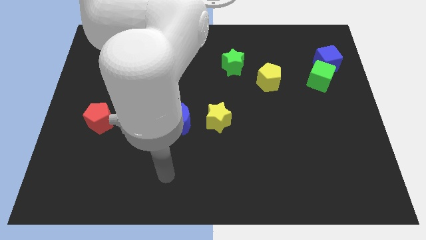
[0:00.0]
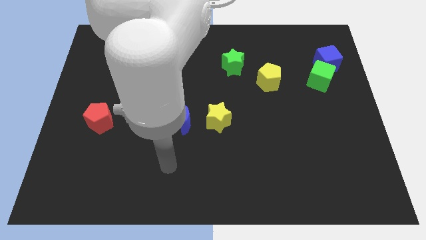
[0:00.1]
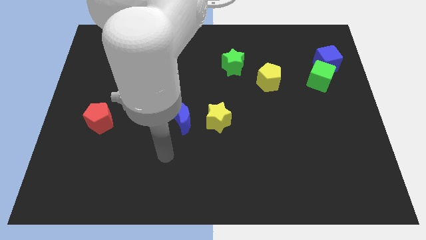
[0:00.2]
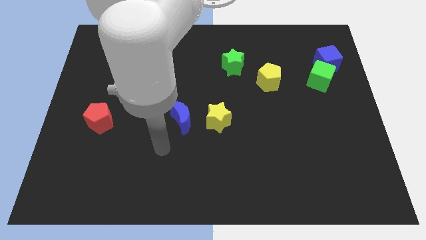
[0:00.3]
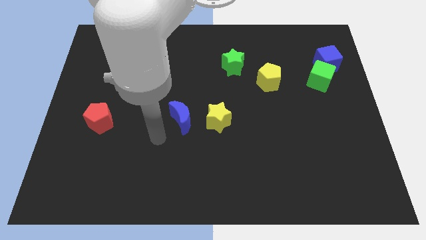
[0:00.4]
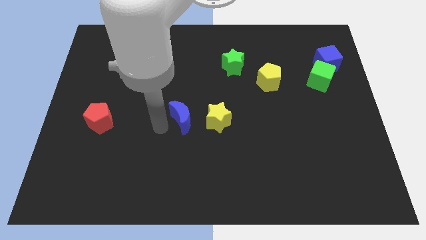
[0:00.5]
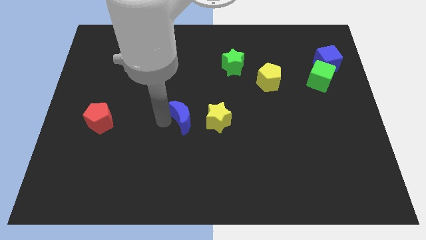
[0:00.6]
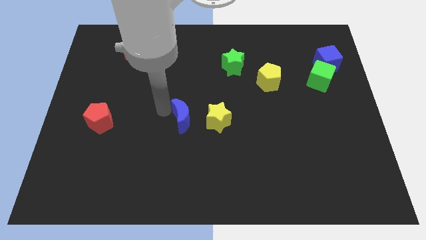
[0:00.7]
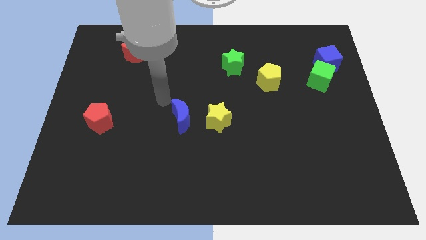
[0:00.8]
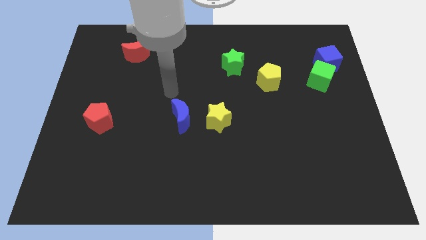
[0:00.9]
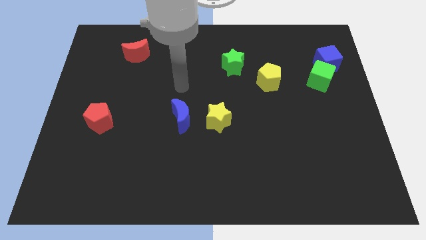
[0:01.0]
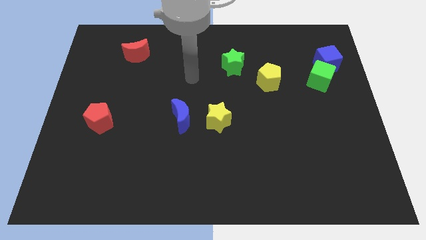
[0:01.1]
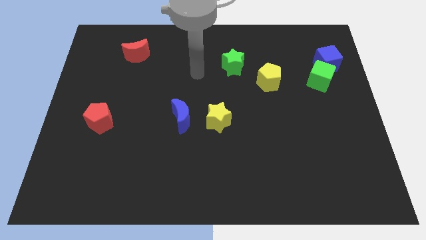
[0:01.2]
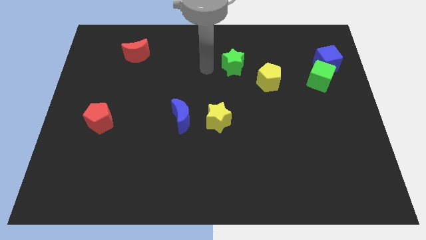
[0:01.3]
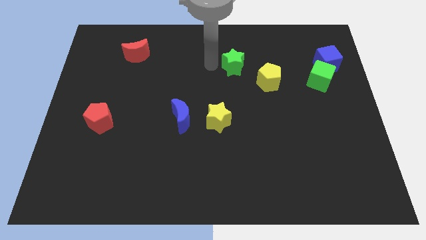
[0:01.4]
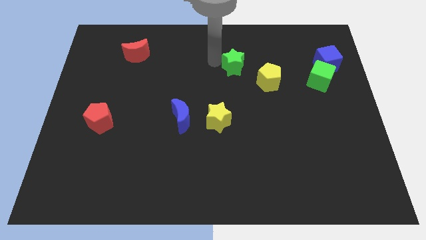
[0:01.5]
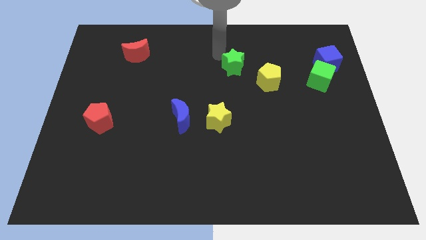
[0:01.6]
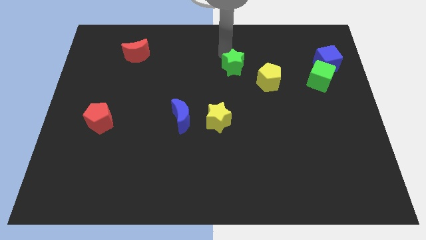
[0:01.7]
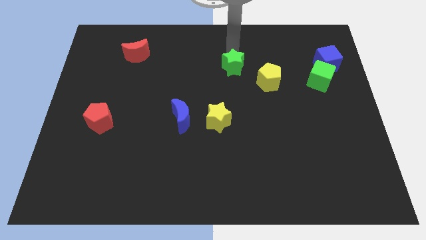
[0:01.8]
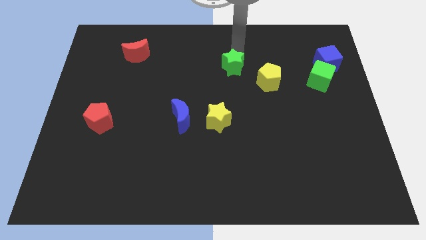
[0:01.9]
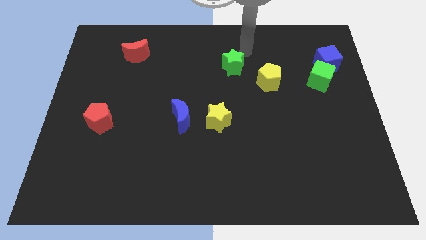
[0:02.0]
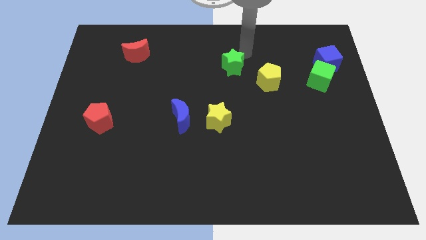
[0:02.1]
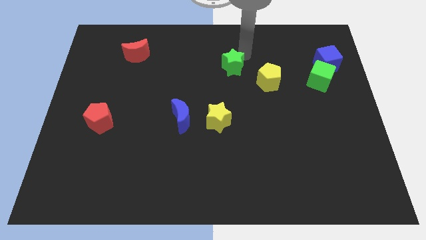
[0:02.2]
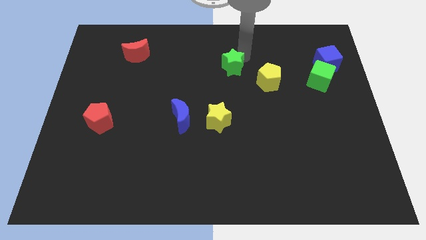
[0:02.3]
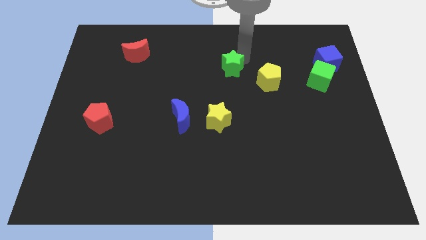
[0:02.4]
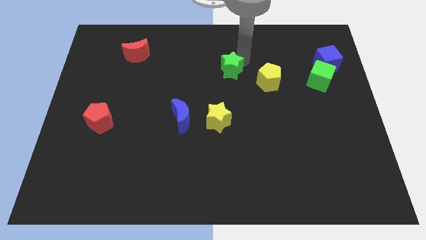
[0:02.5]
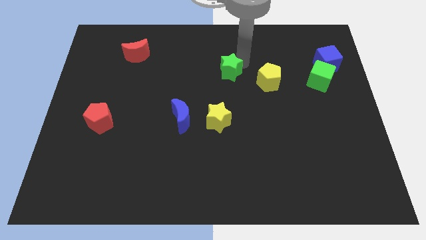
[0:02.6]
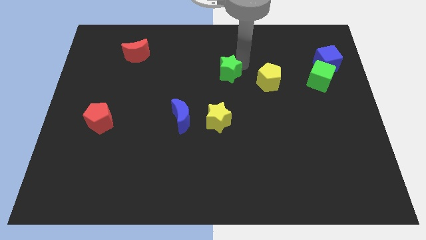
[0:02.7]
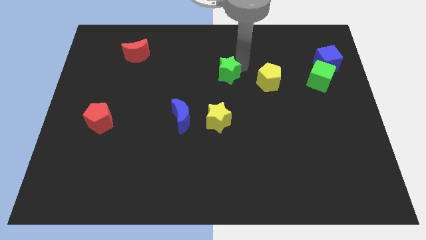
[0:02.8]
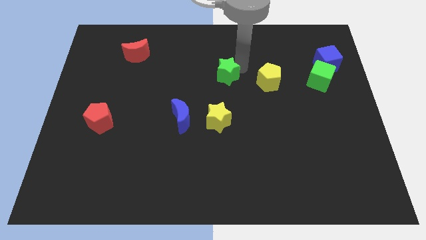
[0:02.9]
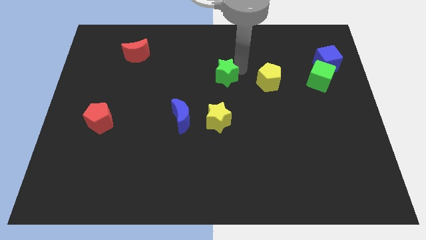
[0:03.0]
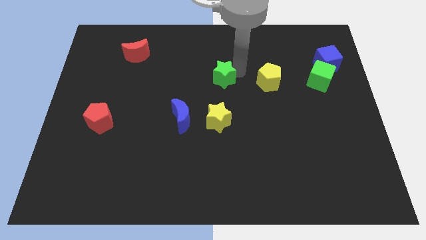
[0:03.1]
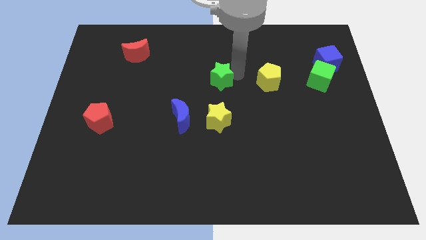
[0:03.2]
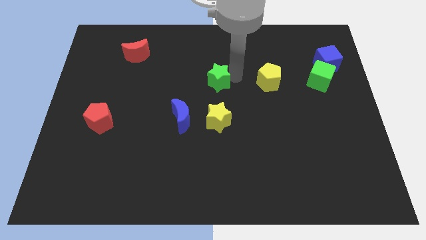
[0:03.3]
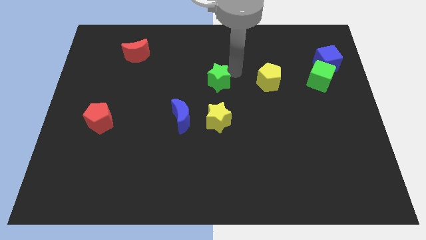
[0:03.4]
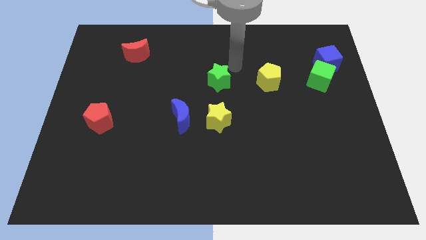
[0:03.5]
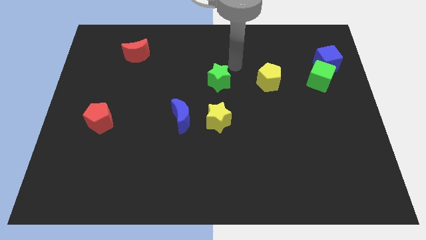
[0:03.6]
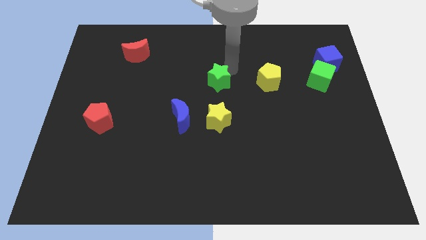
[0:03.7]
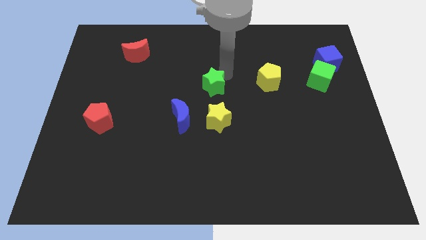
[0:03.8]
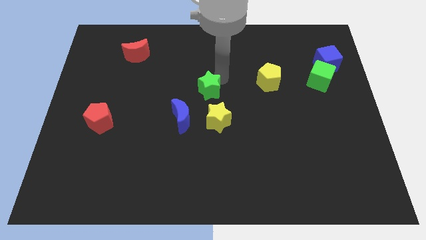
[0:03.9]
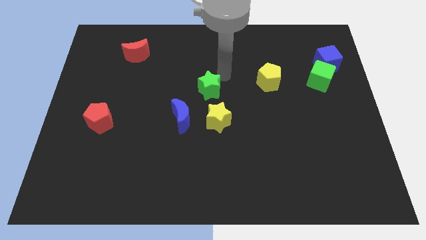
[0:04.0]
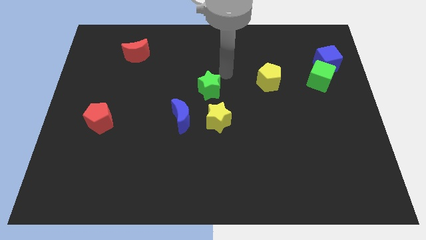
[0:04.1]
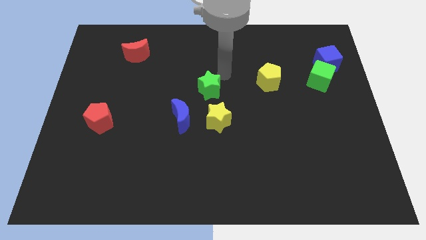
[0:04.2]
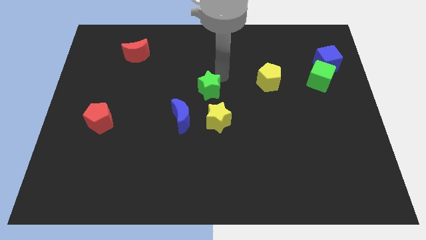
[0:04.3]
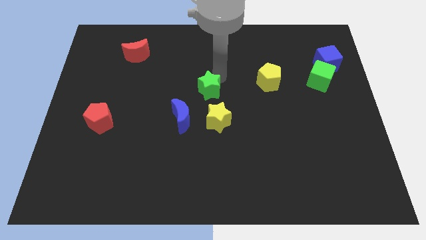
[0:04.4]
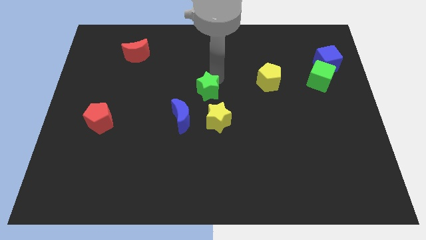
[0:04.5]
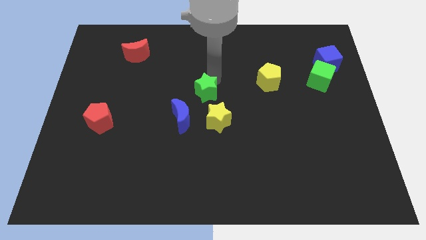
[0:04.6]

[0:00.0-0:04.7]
slide the green star to the top left side of the yellow star

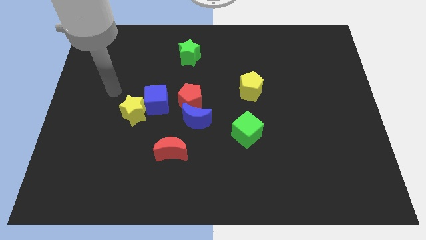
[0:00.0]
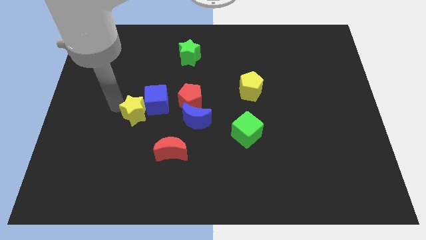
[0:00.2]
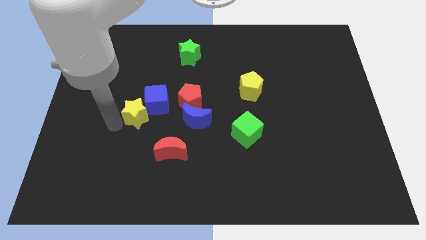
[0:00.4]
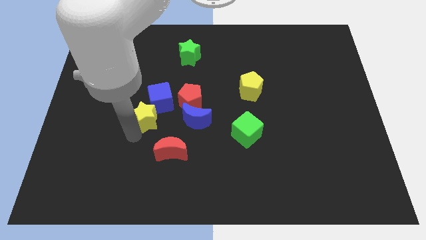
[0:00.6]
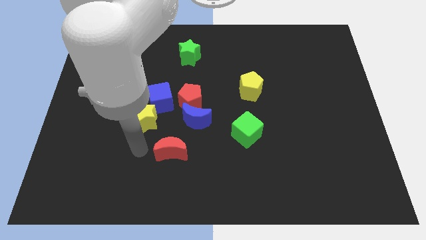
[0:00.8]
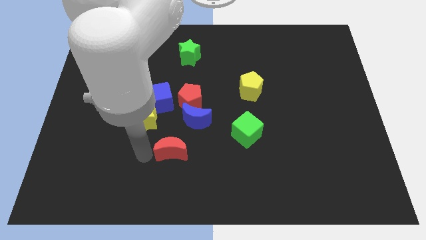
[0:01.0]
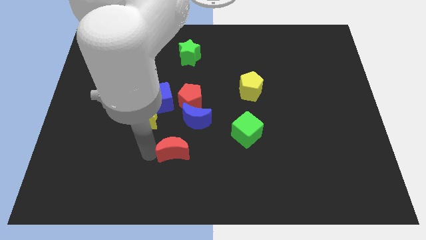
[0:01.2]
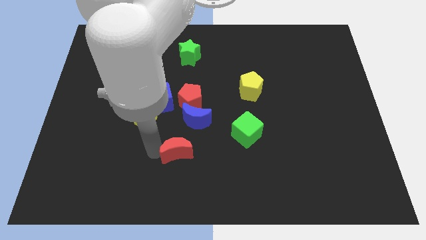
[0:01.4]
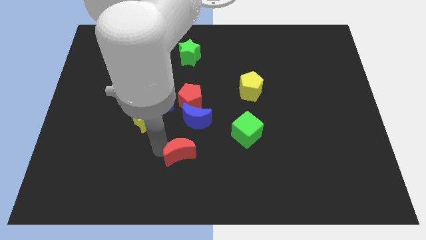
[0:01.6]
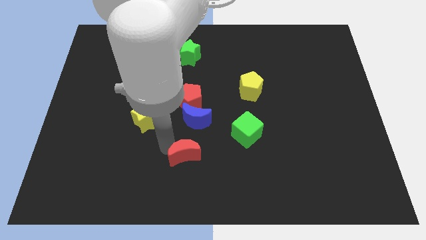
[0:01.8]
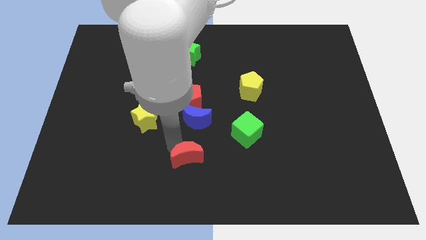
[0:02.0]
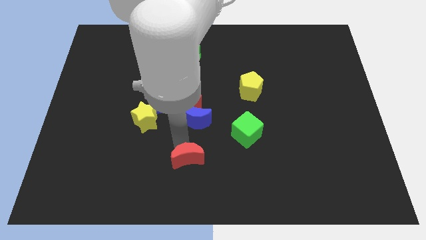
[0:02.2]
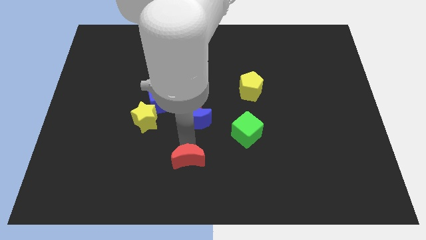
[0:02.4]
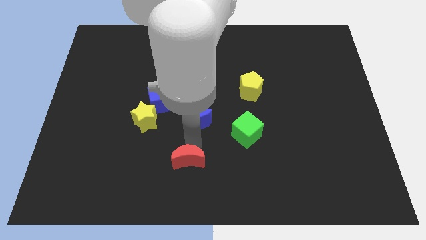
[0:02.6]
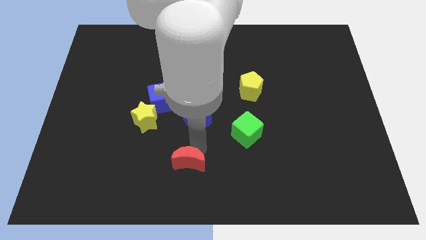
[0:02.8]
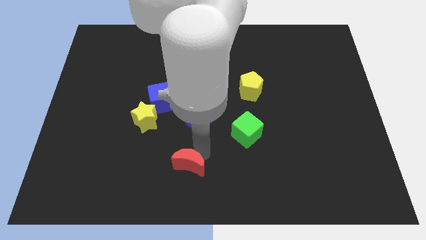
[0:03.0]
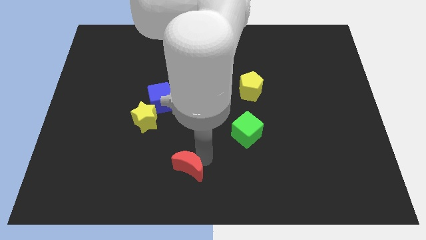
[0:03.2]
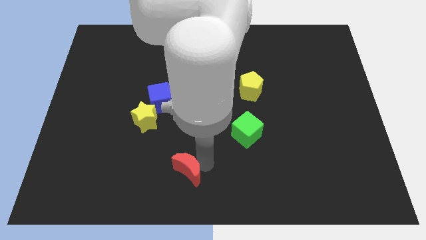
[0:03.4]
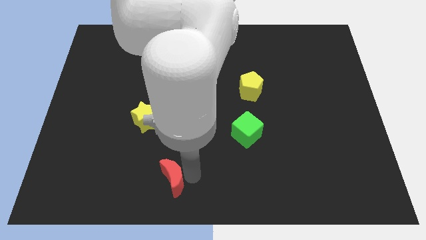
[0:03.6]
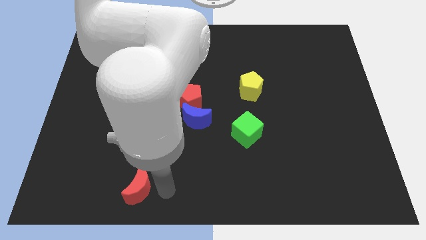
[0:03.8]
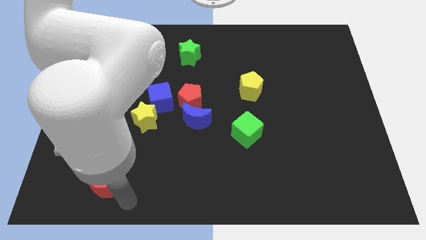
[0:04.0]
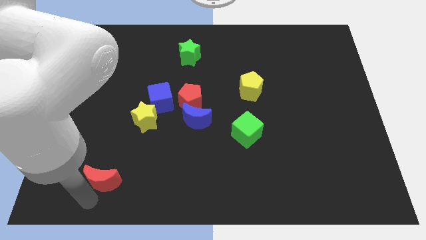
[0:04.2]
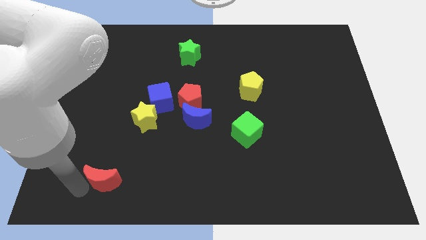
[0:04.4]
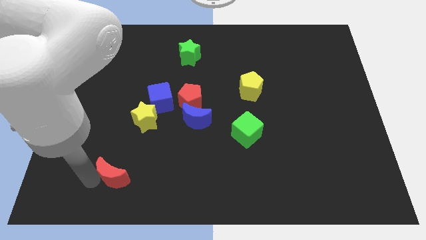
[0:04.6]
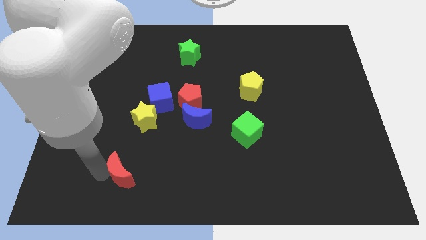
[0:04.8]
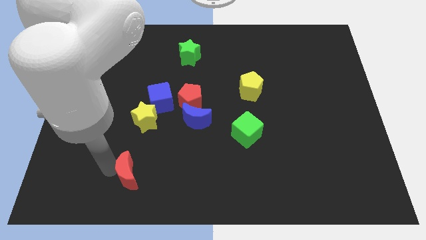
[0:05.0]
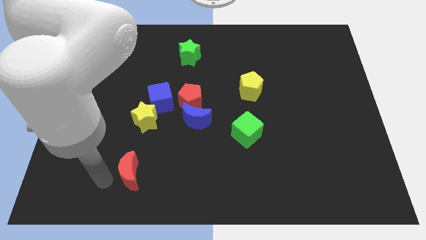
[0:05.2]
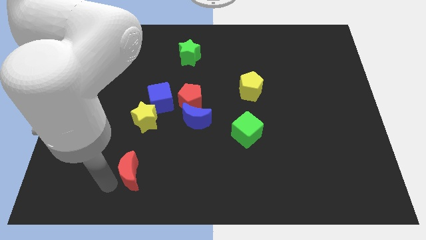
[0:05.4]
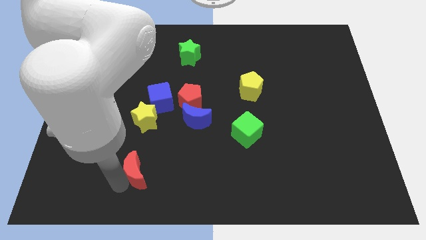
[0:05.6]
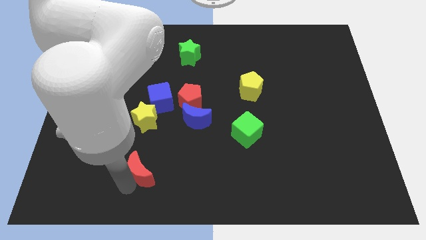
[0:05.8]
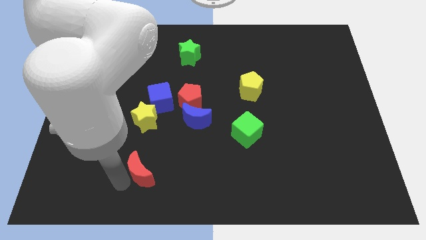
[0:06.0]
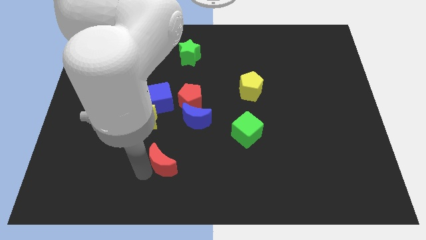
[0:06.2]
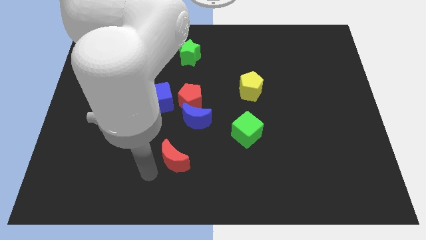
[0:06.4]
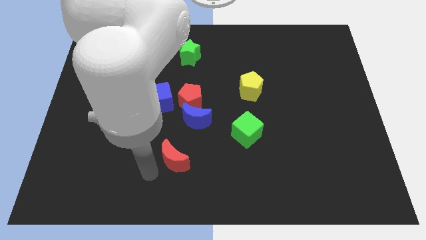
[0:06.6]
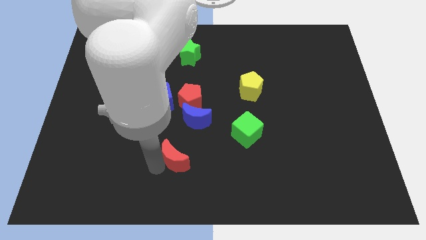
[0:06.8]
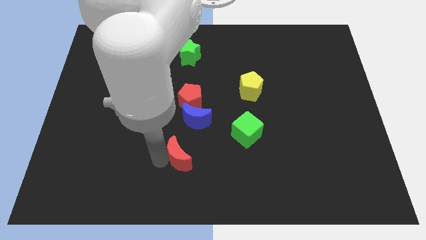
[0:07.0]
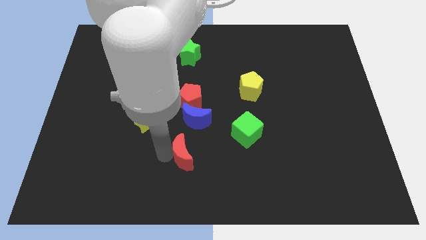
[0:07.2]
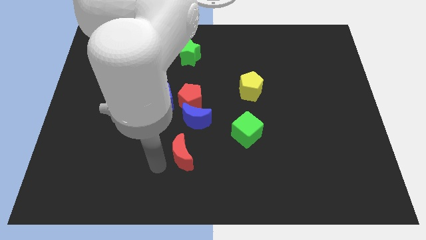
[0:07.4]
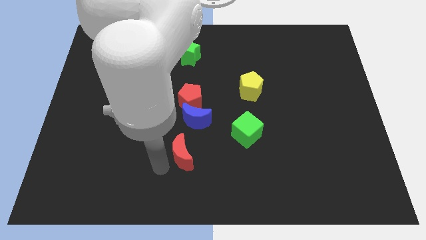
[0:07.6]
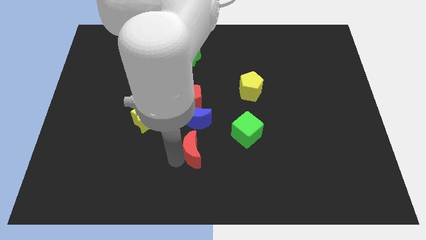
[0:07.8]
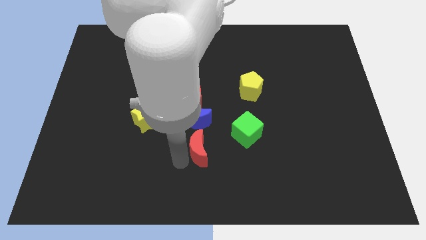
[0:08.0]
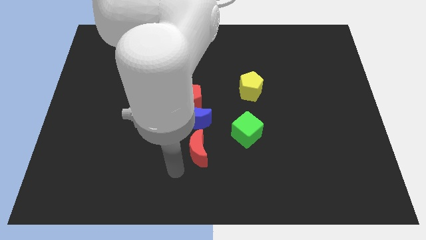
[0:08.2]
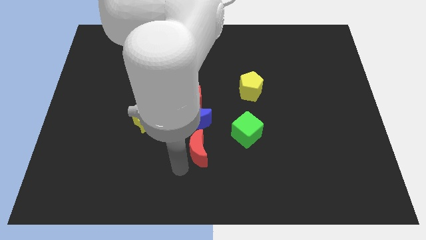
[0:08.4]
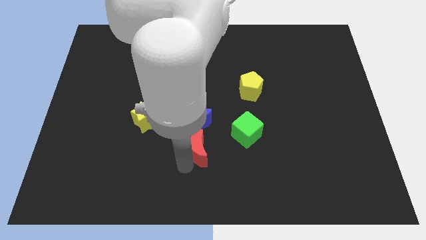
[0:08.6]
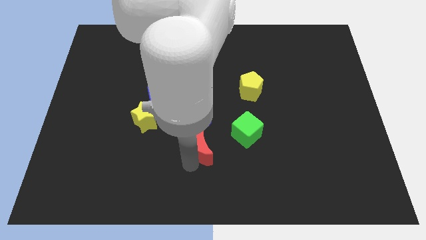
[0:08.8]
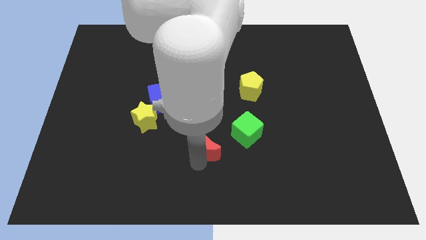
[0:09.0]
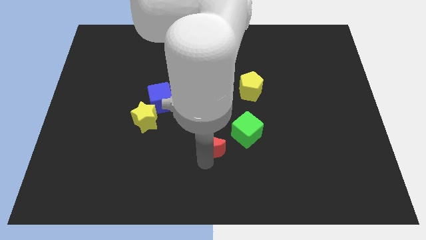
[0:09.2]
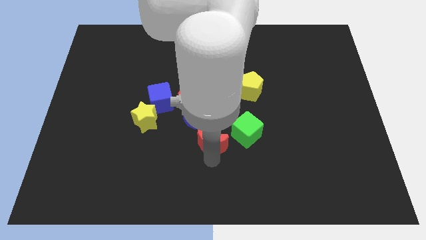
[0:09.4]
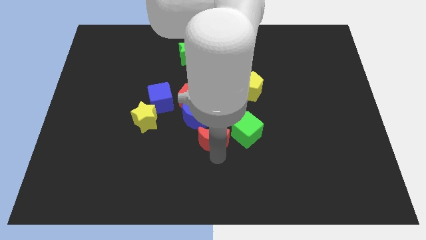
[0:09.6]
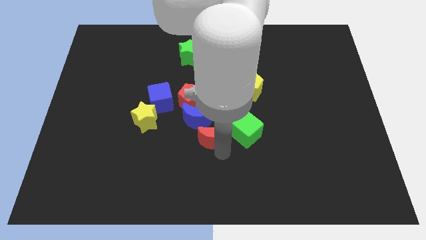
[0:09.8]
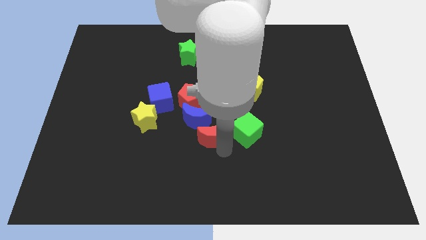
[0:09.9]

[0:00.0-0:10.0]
put the red moon to the bottom right side of the red pentagon
